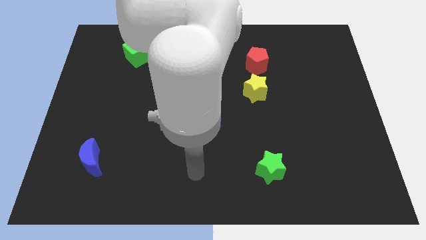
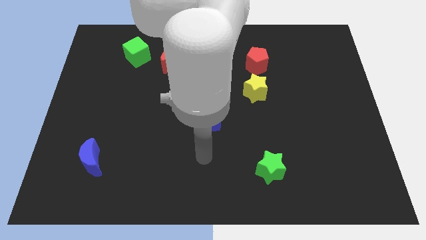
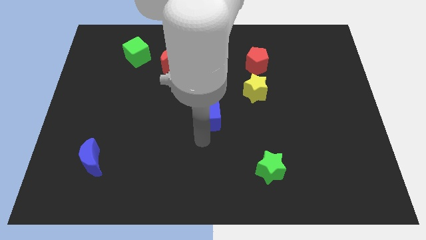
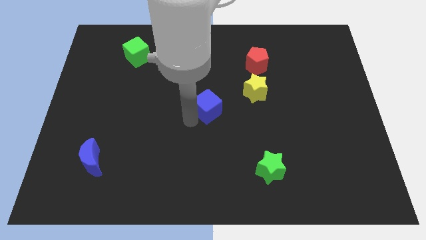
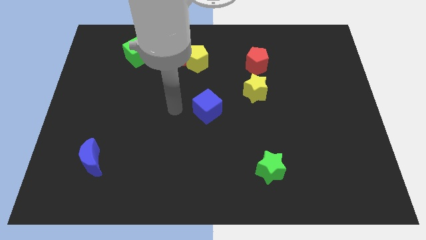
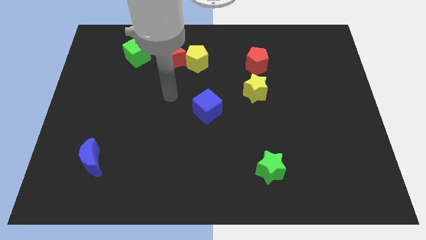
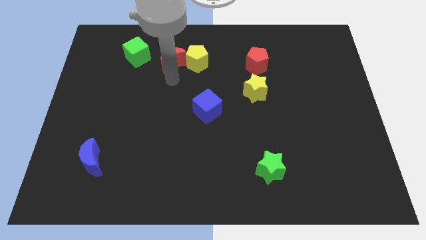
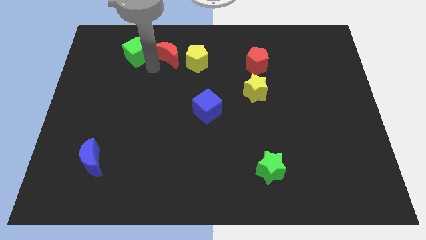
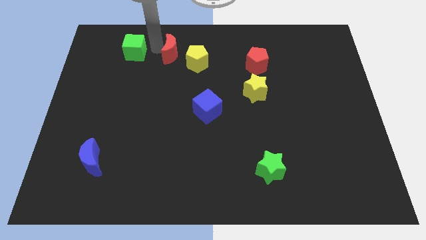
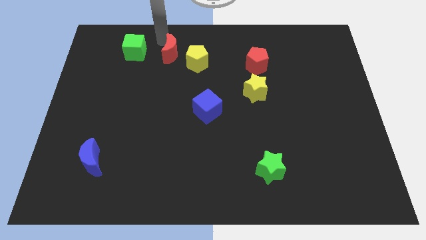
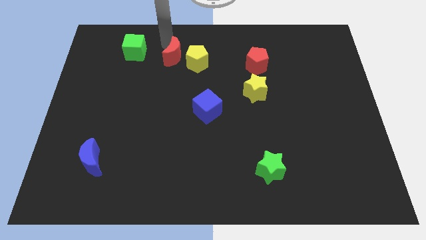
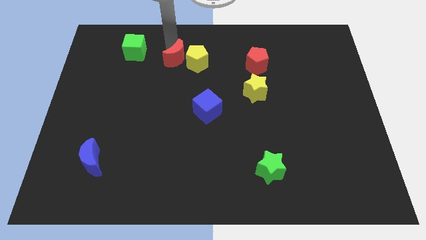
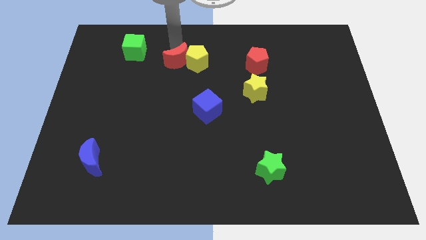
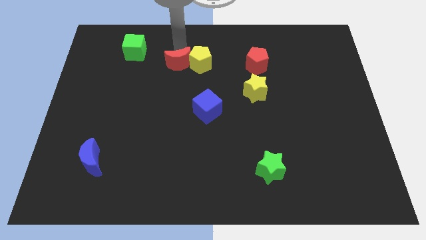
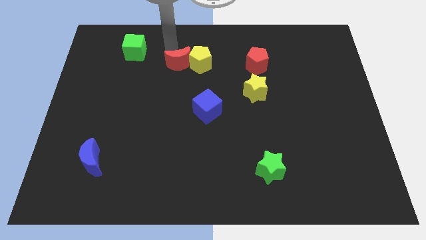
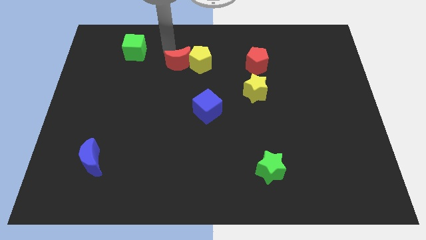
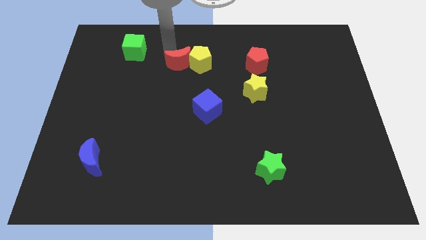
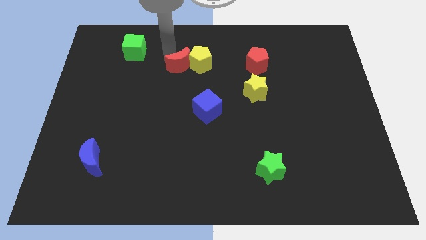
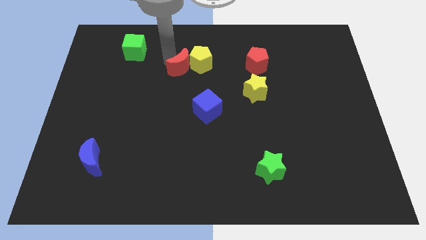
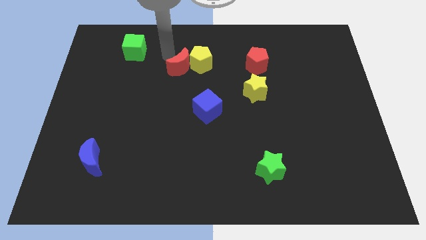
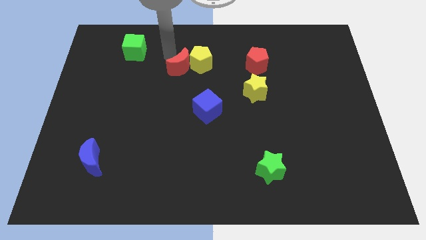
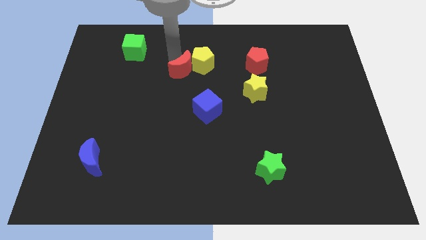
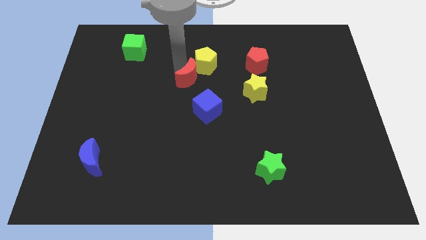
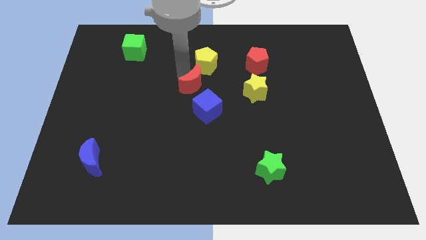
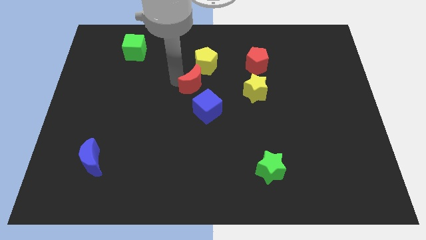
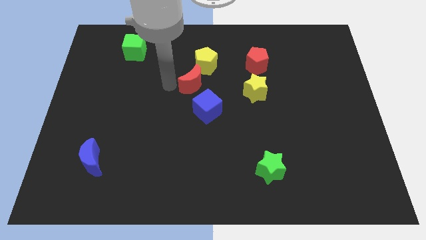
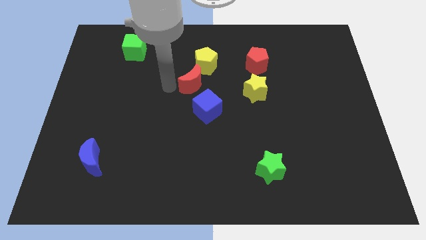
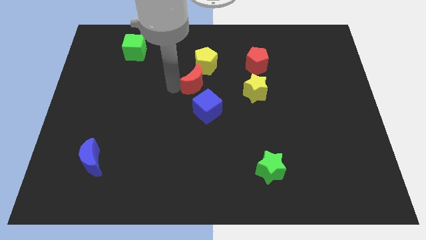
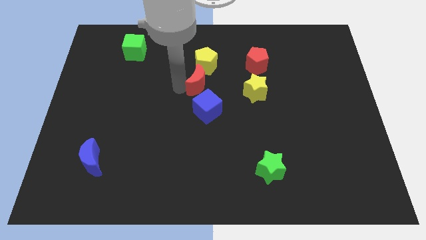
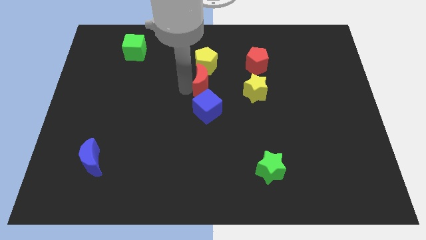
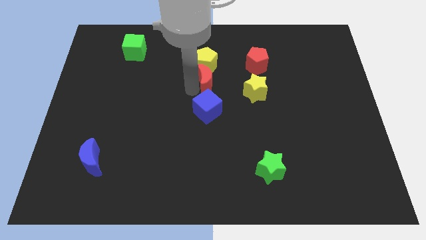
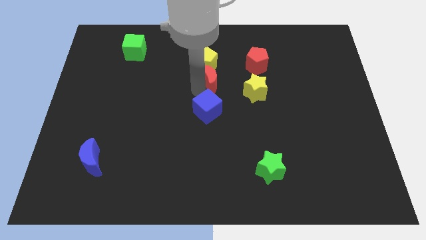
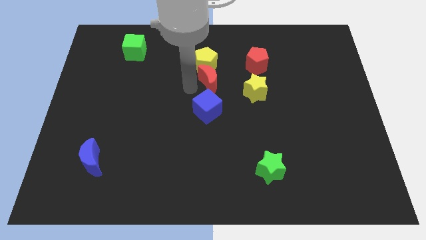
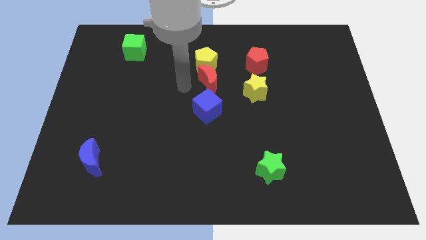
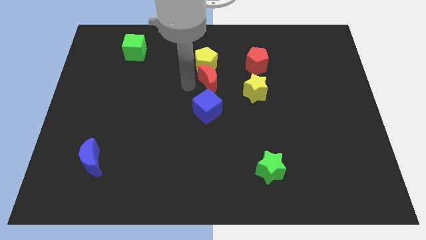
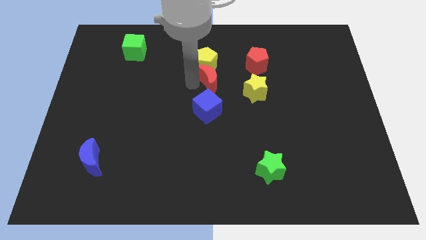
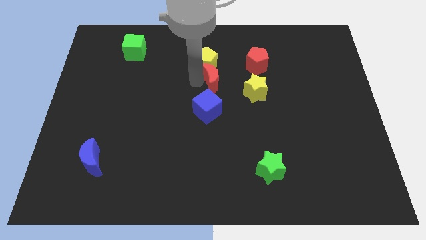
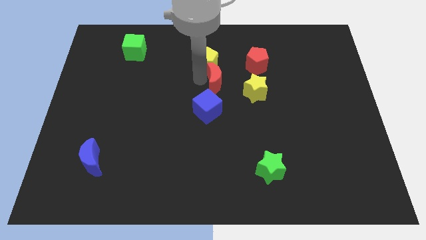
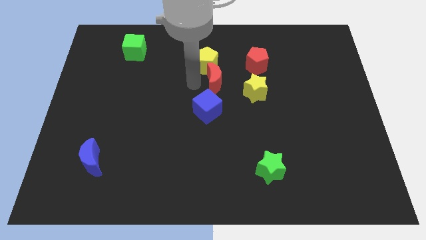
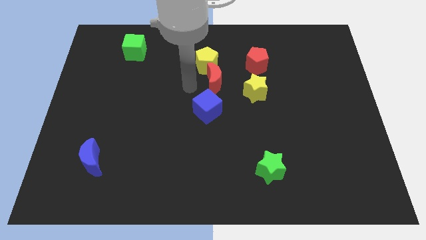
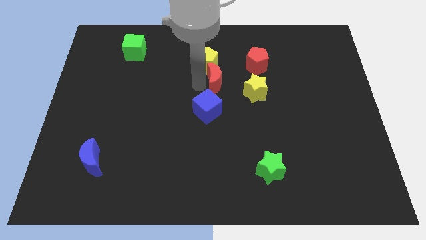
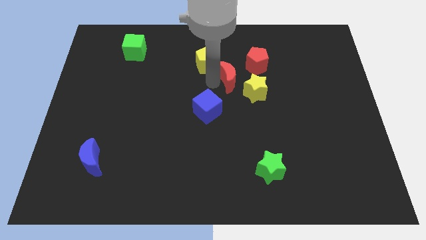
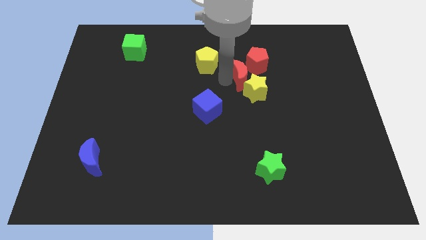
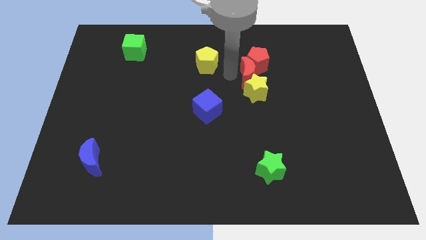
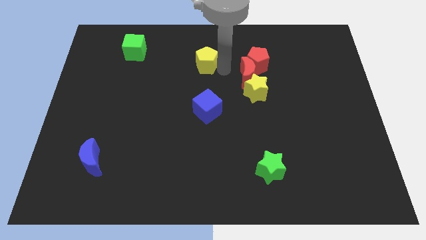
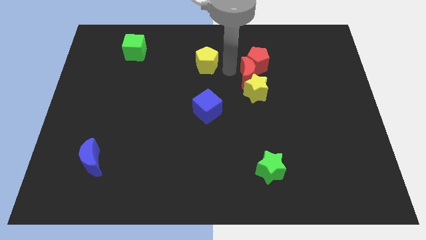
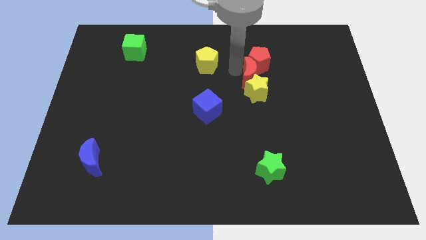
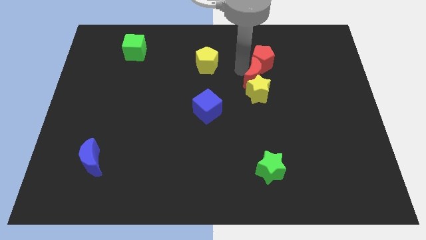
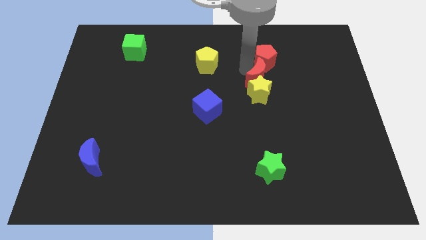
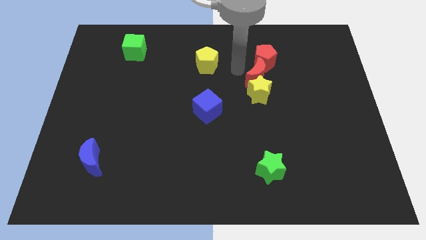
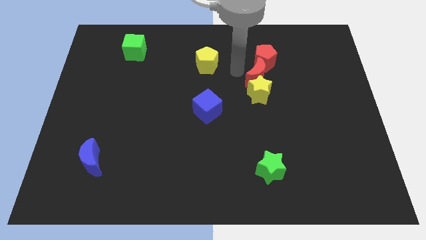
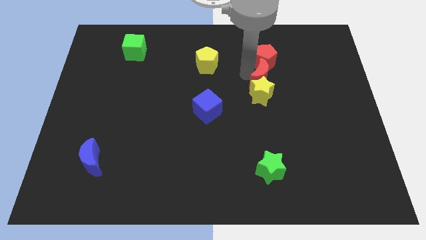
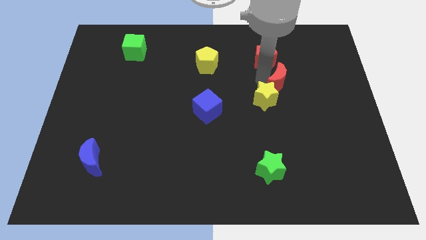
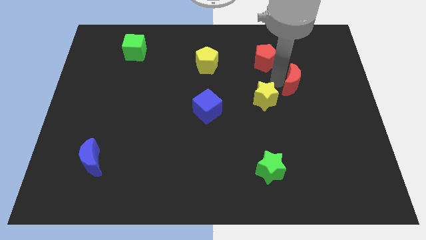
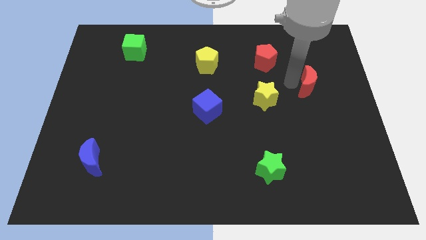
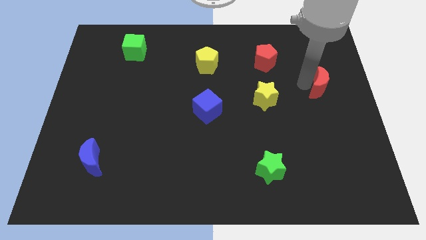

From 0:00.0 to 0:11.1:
put the red moon to the center right
